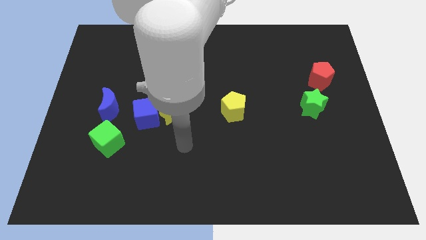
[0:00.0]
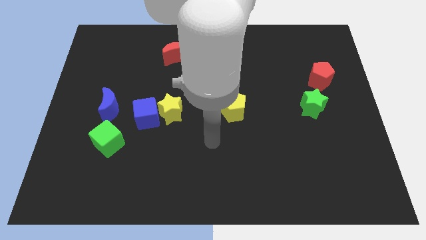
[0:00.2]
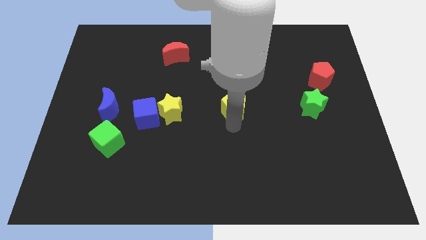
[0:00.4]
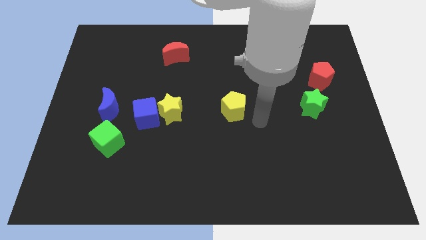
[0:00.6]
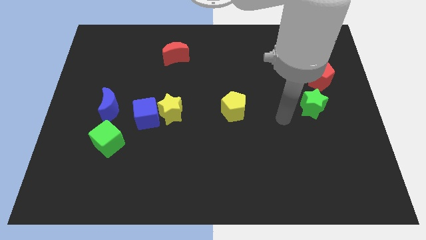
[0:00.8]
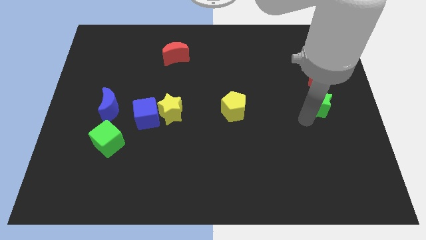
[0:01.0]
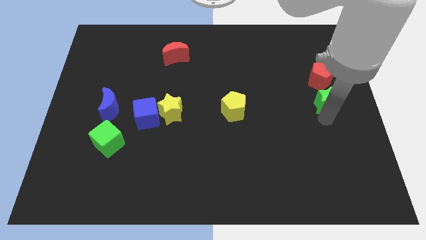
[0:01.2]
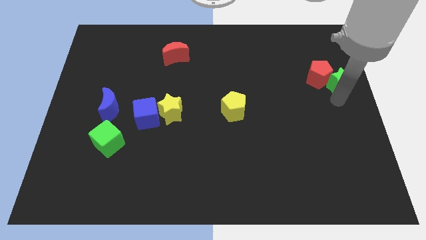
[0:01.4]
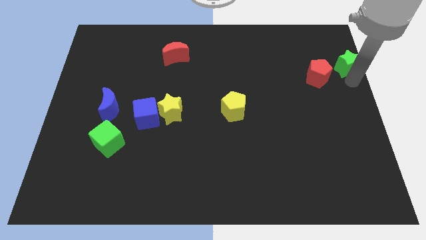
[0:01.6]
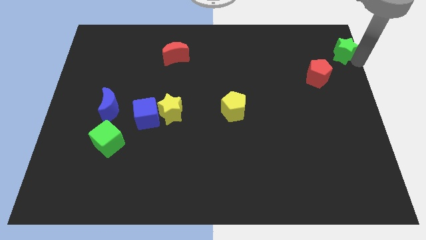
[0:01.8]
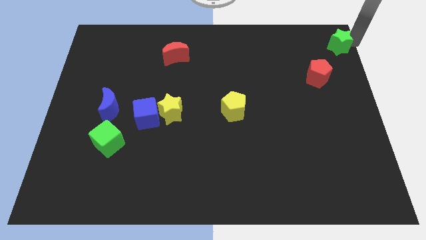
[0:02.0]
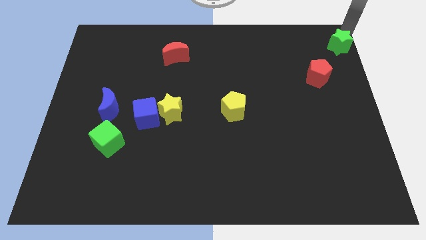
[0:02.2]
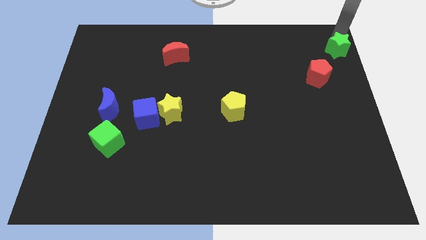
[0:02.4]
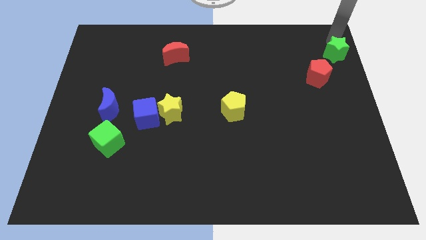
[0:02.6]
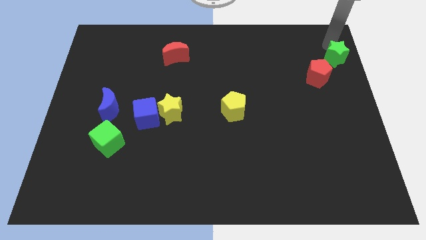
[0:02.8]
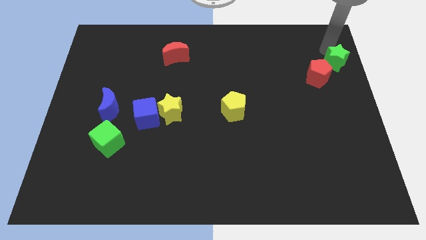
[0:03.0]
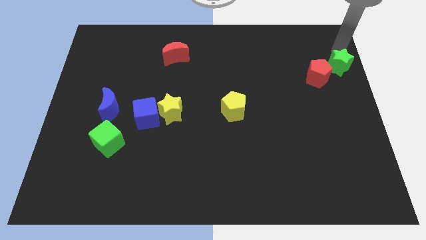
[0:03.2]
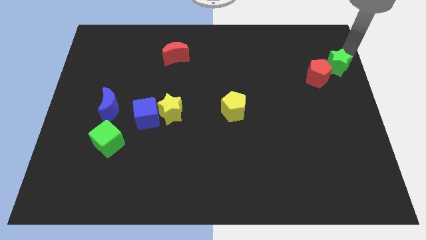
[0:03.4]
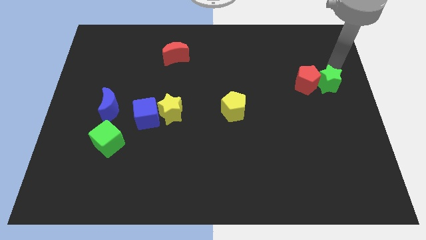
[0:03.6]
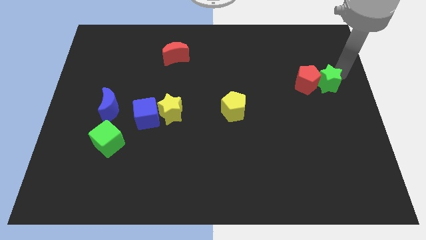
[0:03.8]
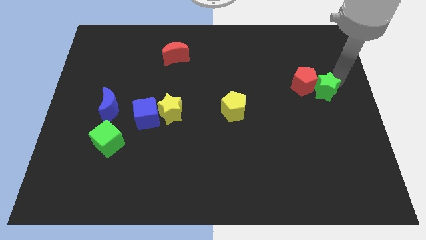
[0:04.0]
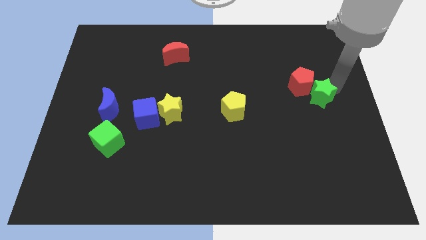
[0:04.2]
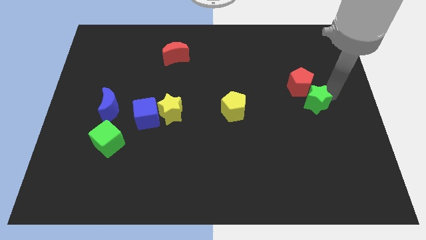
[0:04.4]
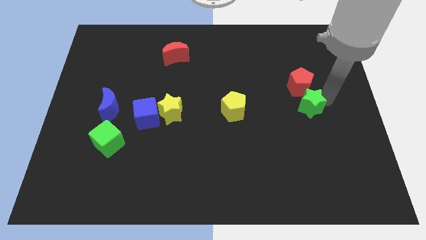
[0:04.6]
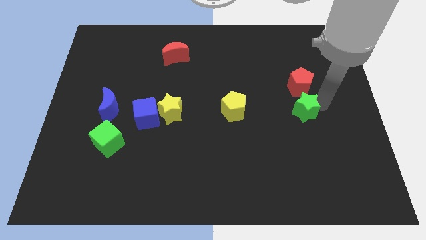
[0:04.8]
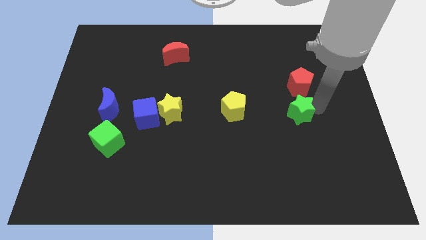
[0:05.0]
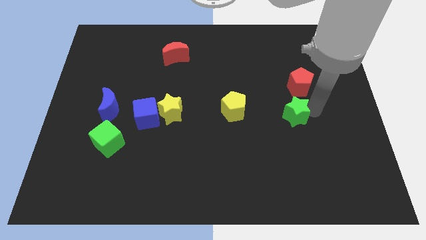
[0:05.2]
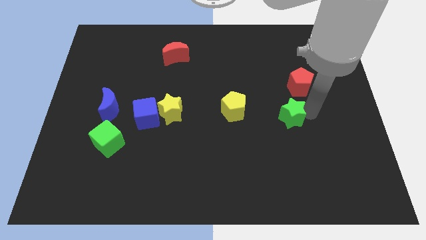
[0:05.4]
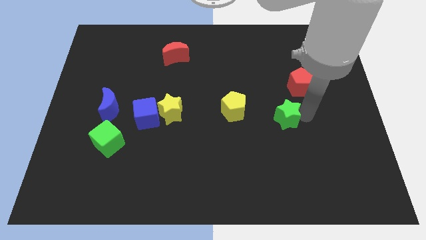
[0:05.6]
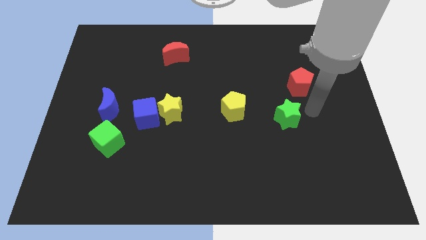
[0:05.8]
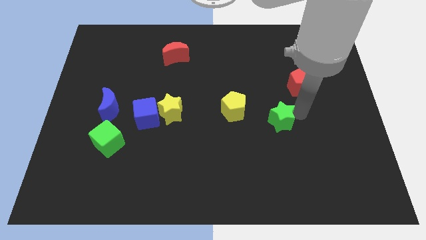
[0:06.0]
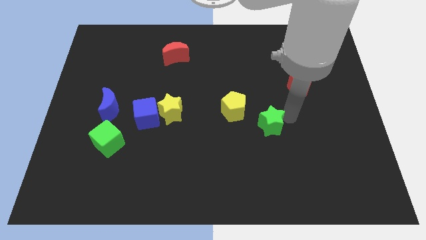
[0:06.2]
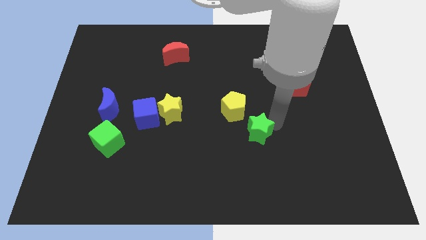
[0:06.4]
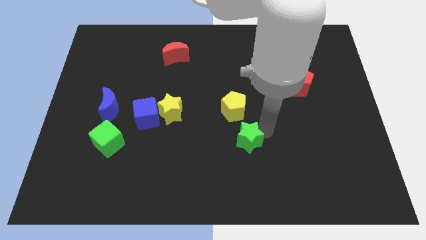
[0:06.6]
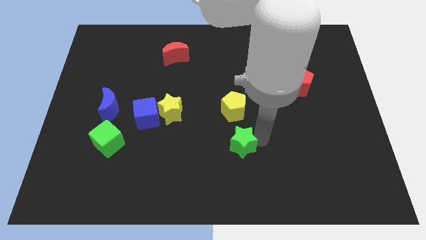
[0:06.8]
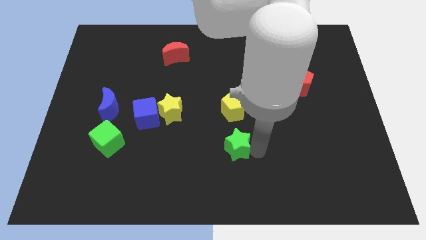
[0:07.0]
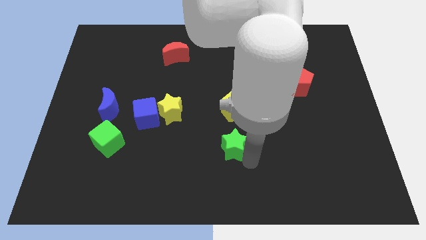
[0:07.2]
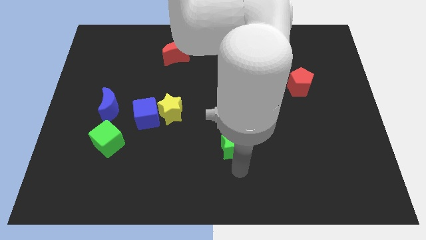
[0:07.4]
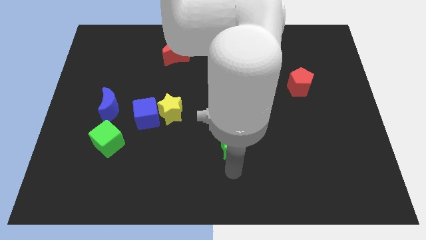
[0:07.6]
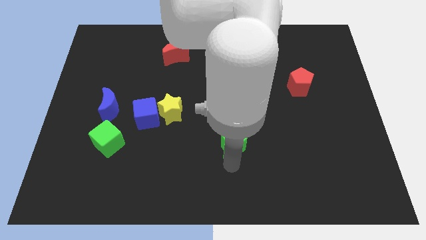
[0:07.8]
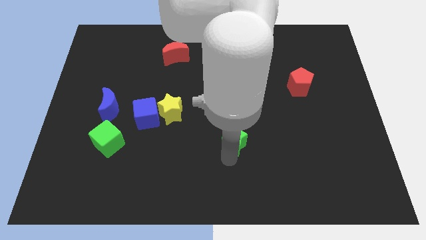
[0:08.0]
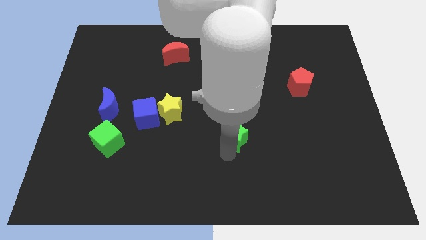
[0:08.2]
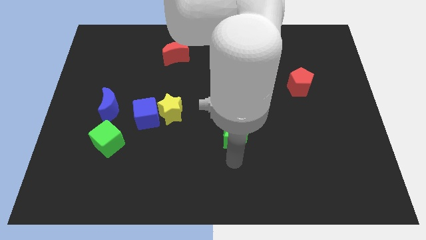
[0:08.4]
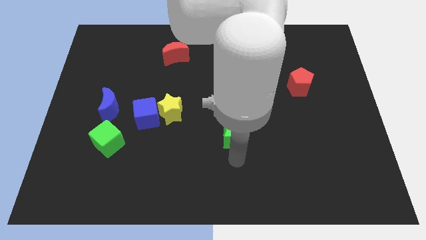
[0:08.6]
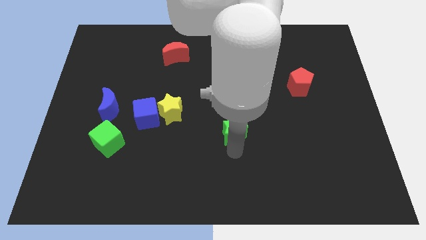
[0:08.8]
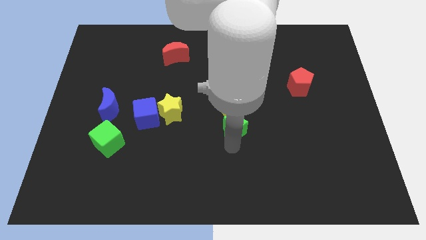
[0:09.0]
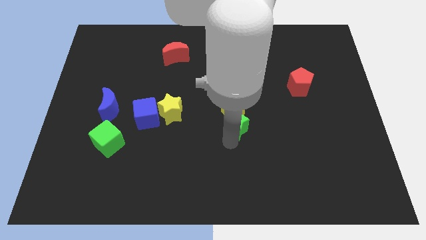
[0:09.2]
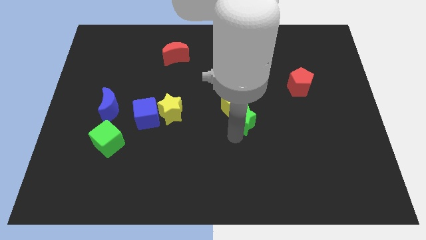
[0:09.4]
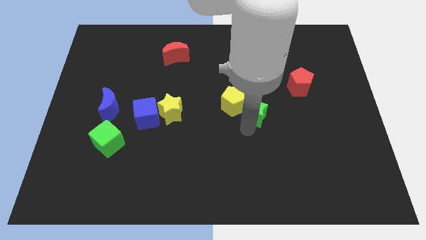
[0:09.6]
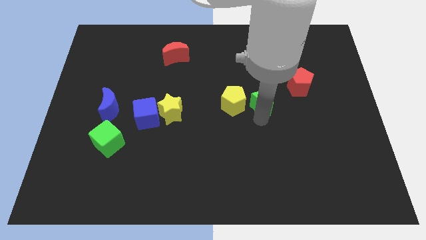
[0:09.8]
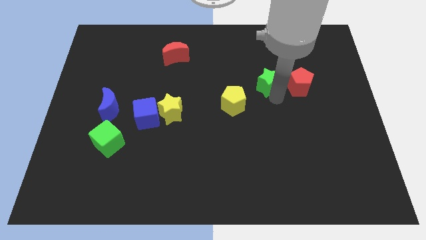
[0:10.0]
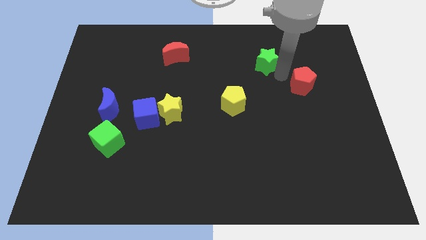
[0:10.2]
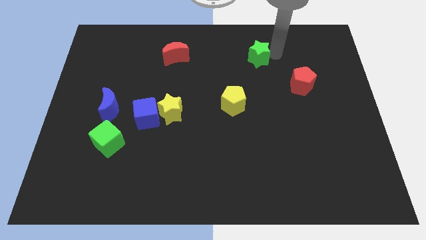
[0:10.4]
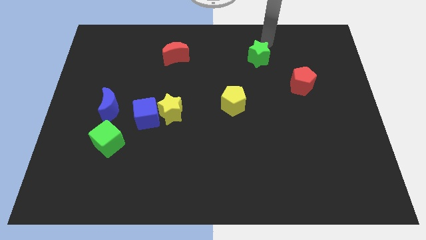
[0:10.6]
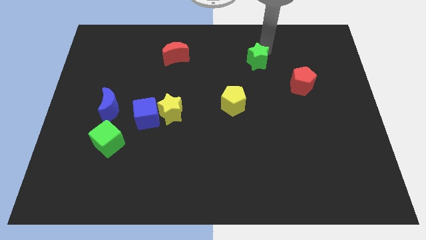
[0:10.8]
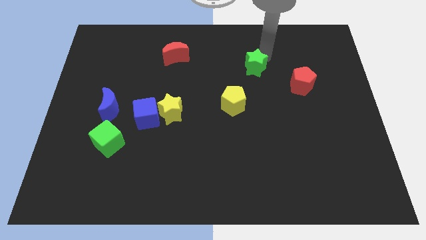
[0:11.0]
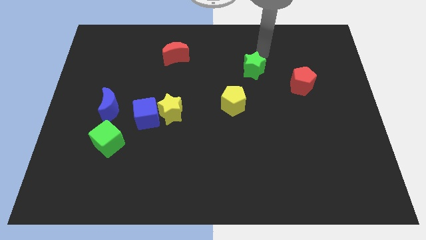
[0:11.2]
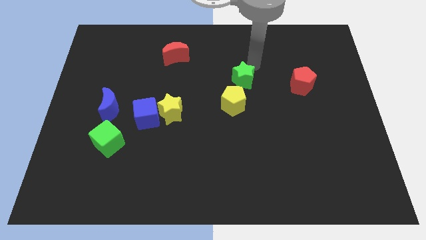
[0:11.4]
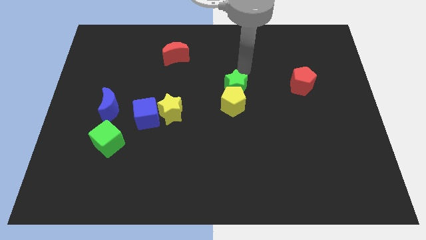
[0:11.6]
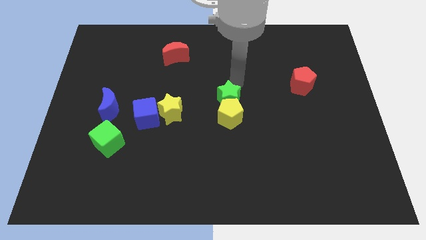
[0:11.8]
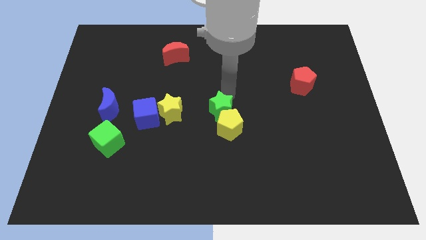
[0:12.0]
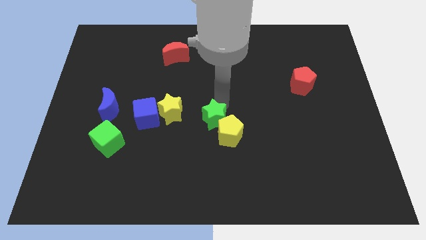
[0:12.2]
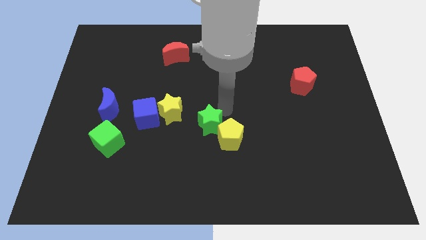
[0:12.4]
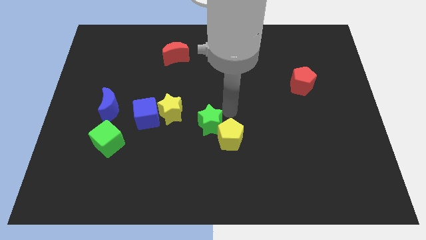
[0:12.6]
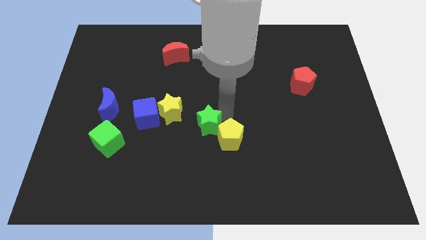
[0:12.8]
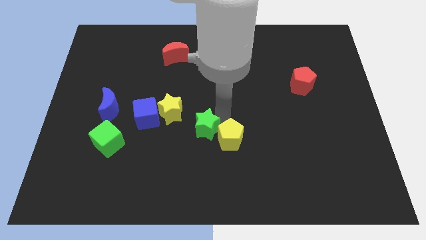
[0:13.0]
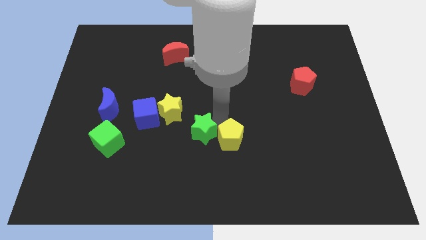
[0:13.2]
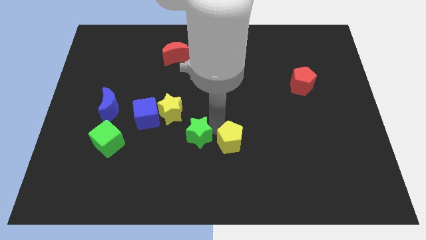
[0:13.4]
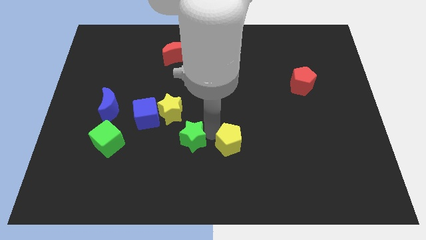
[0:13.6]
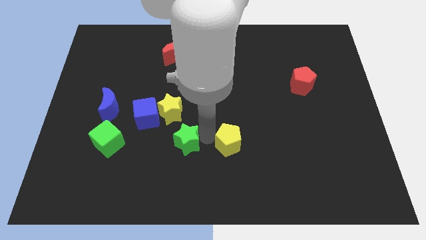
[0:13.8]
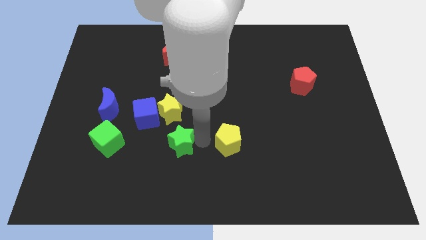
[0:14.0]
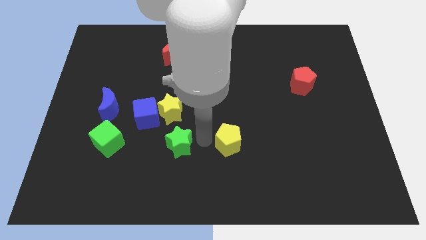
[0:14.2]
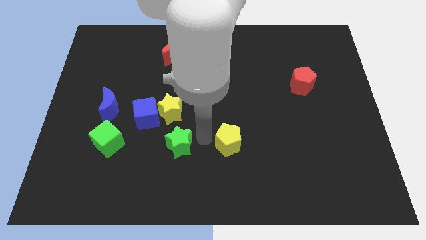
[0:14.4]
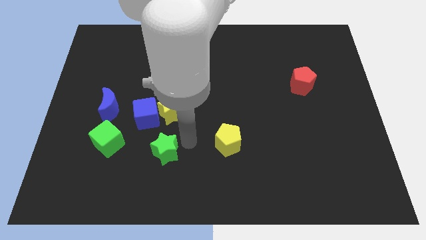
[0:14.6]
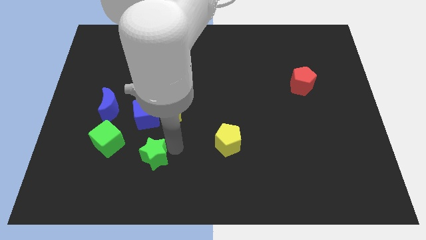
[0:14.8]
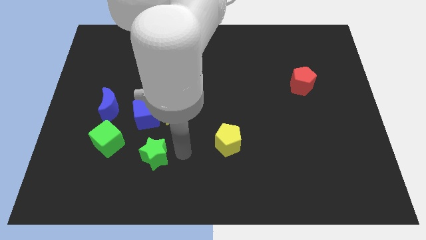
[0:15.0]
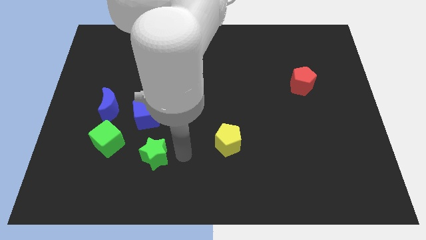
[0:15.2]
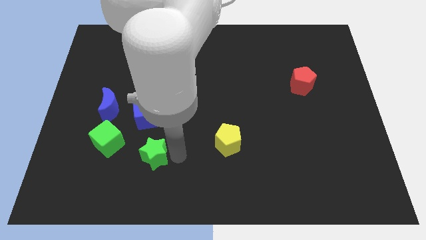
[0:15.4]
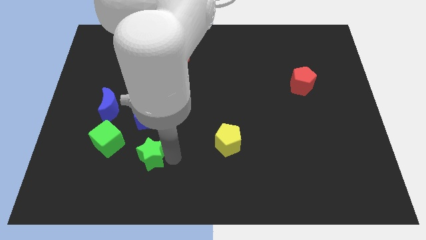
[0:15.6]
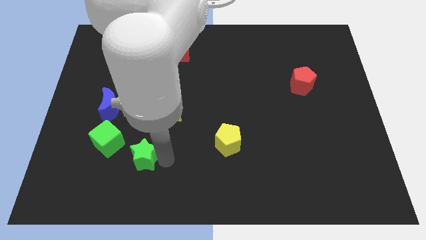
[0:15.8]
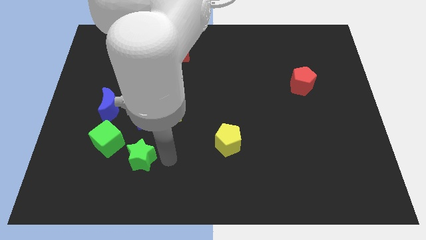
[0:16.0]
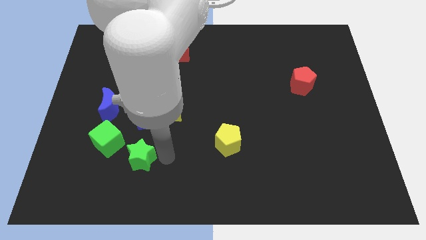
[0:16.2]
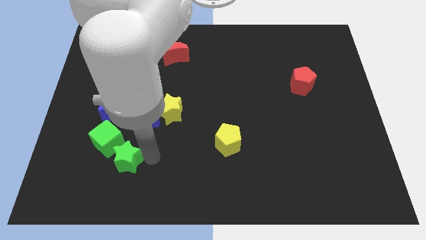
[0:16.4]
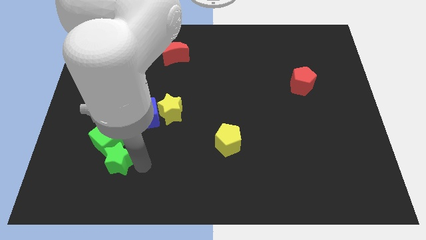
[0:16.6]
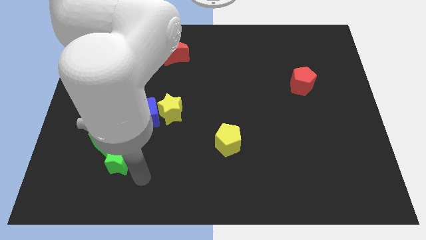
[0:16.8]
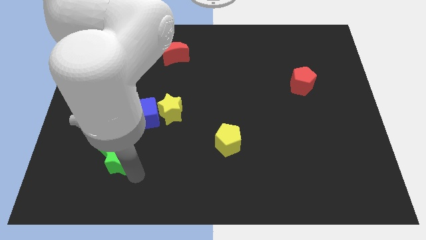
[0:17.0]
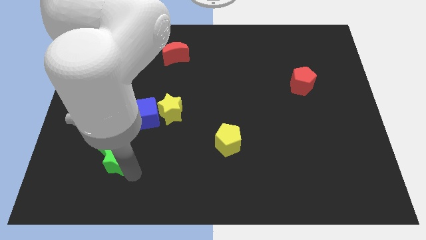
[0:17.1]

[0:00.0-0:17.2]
move the green star to the bottom of the blue moon
